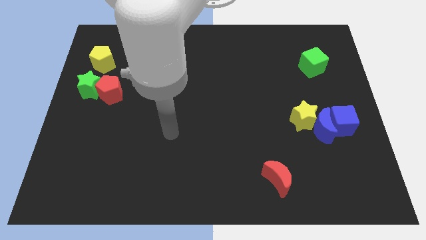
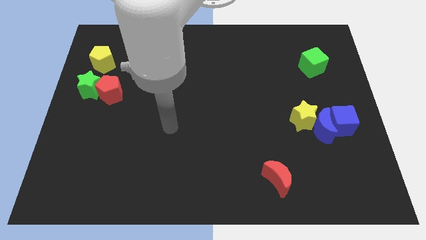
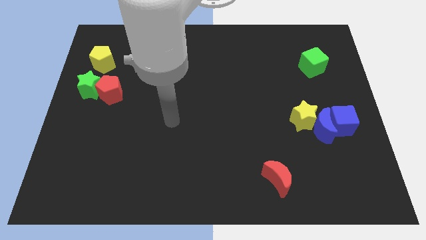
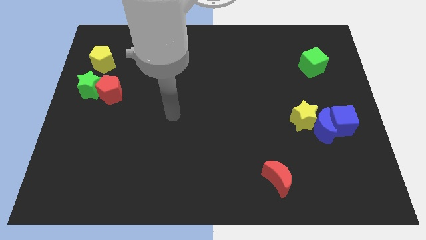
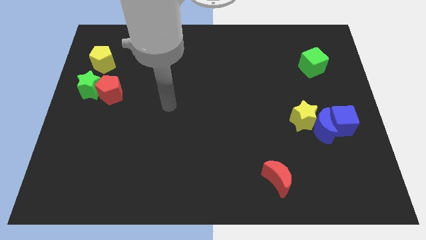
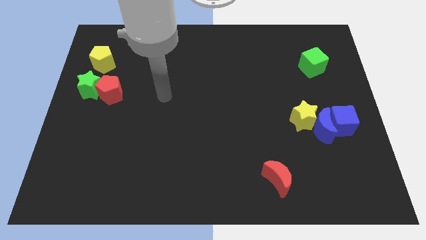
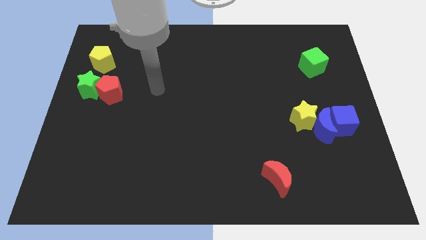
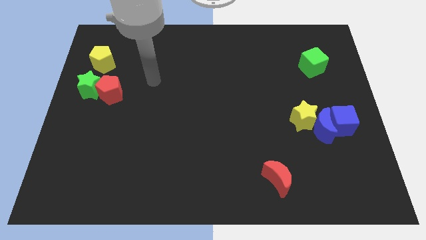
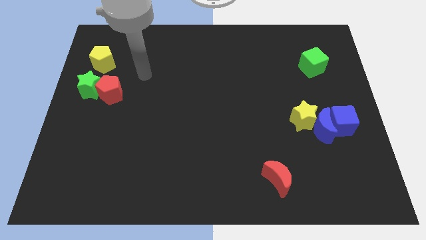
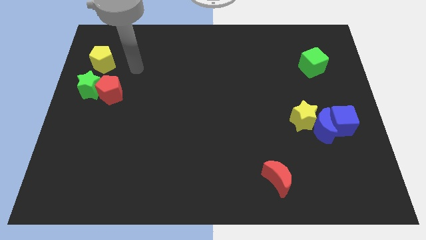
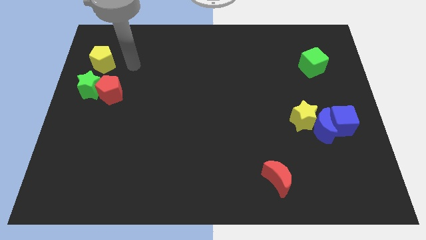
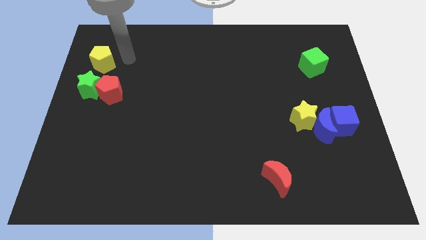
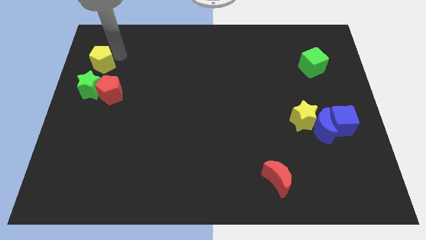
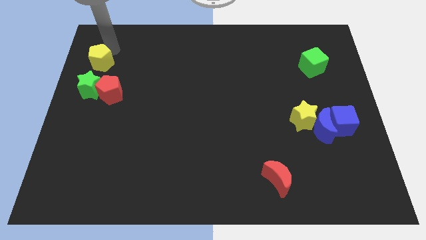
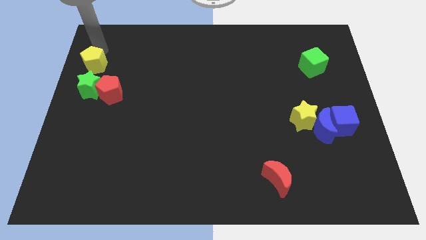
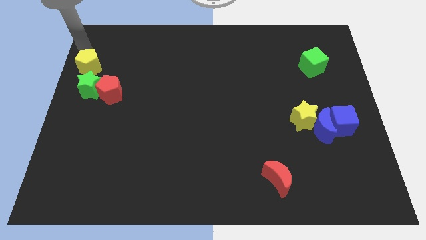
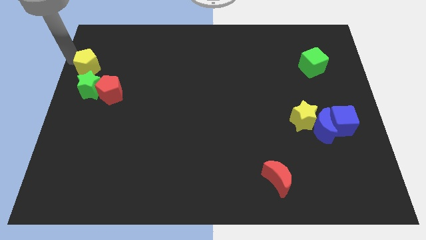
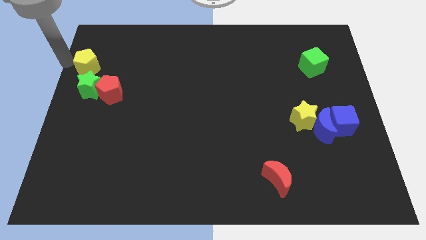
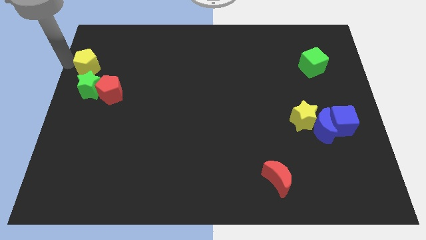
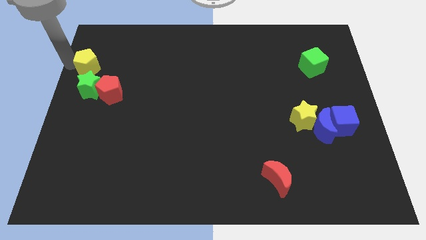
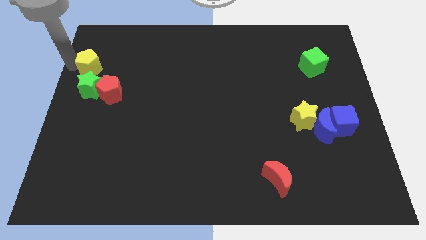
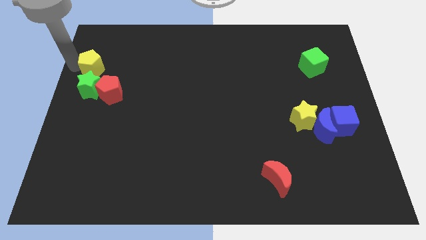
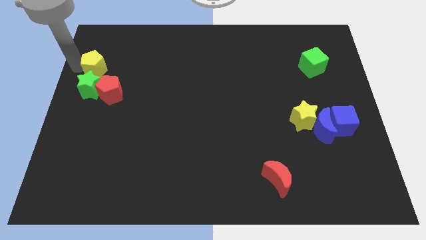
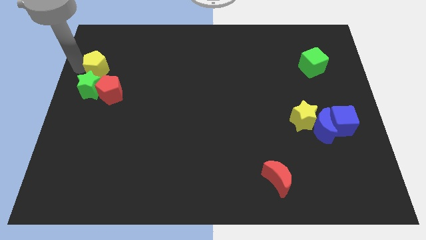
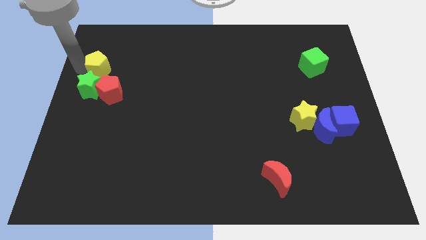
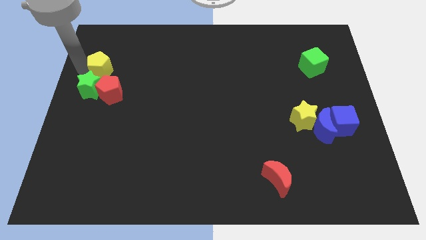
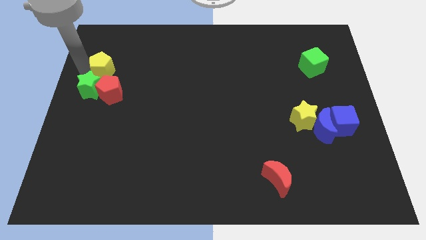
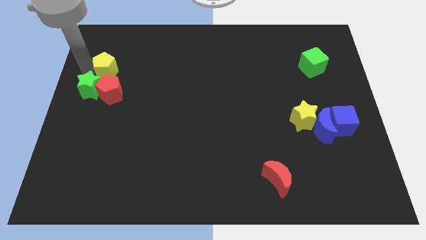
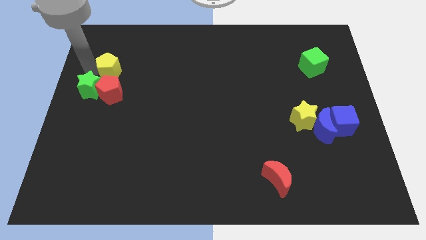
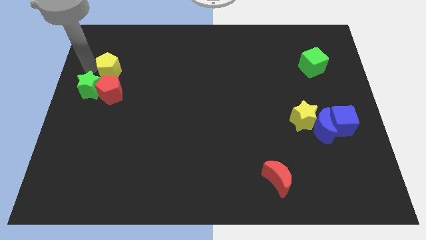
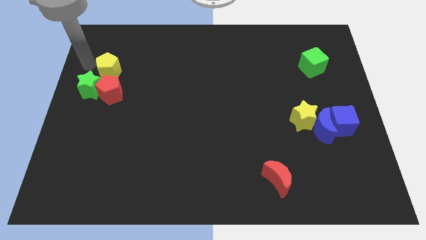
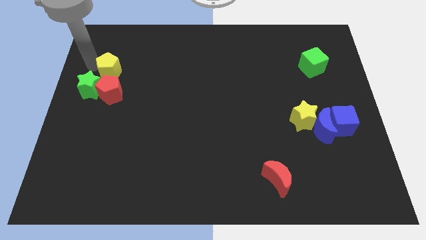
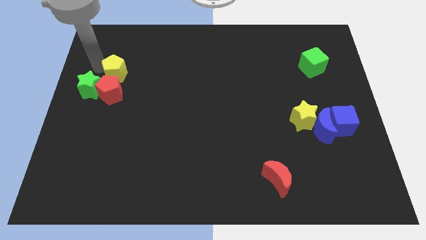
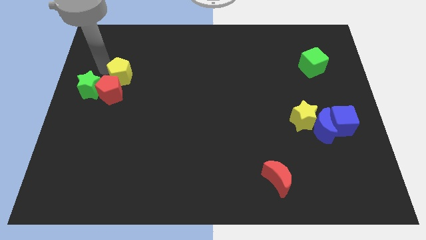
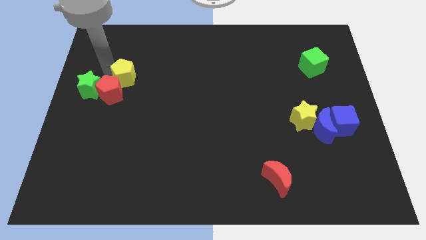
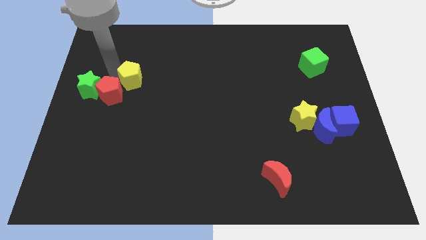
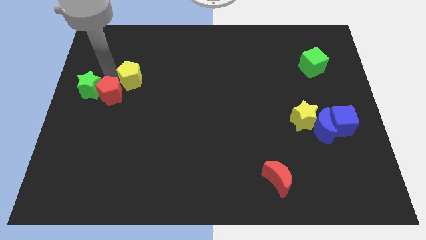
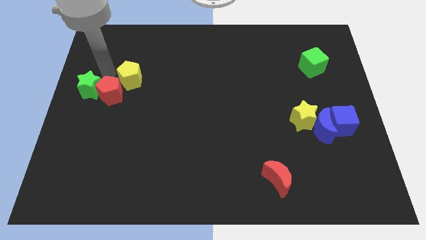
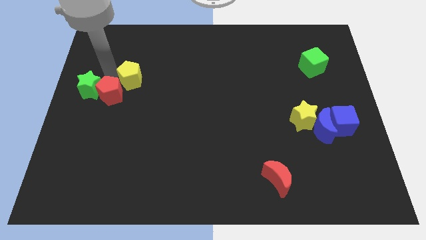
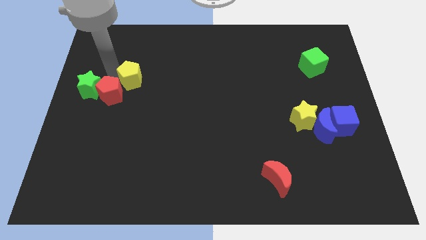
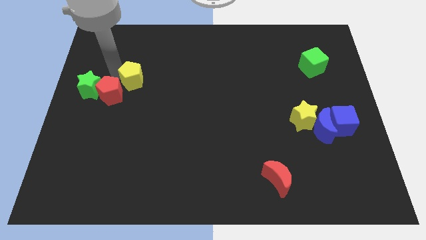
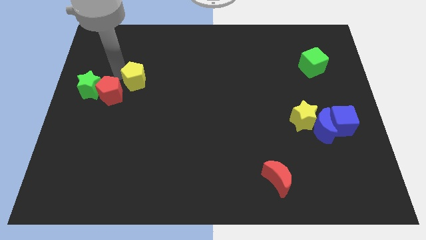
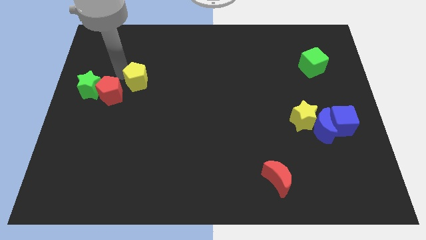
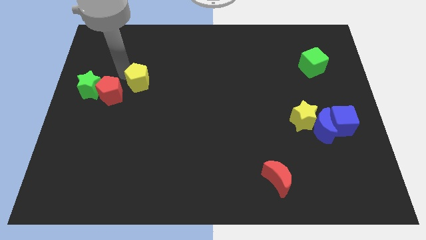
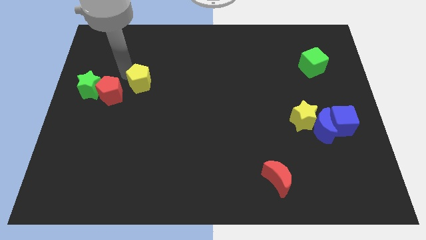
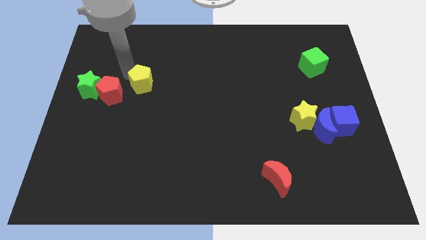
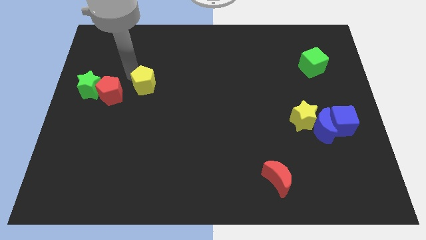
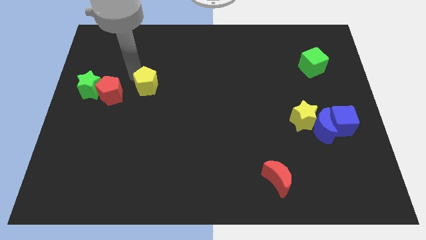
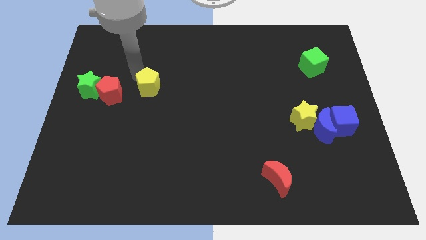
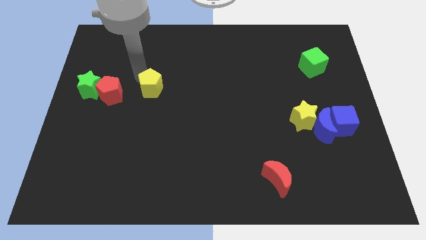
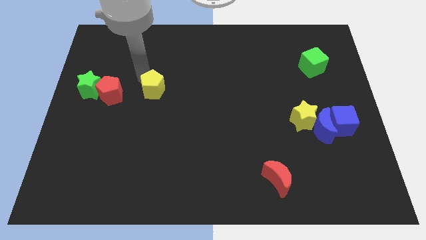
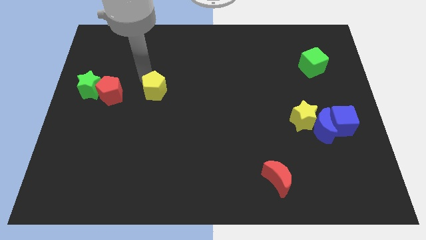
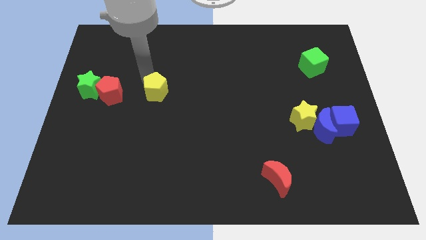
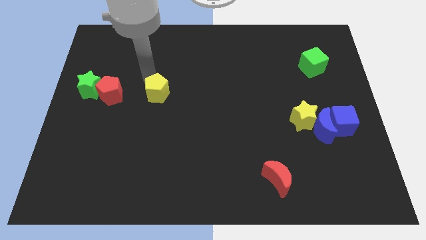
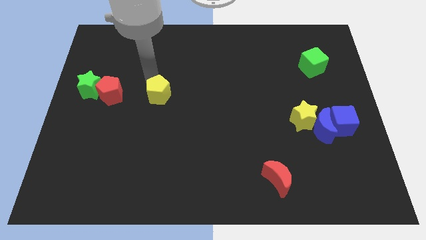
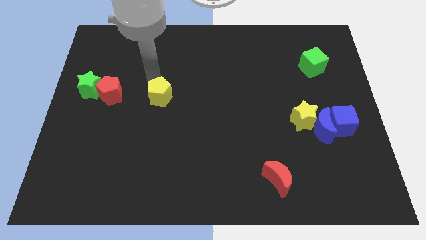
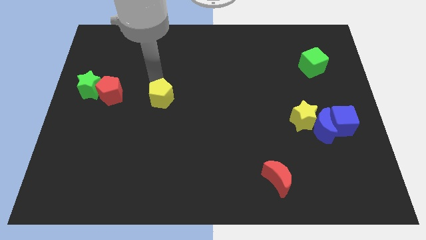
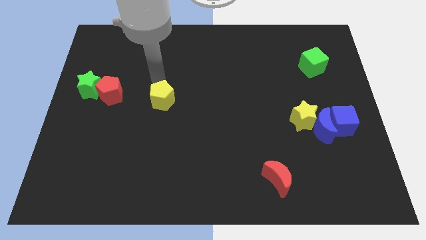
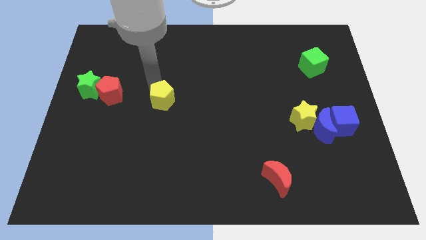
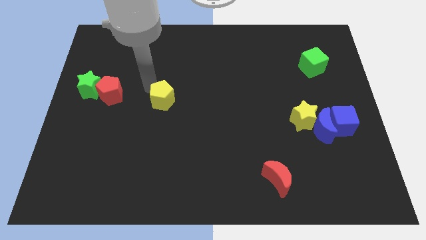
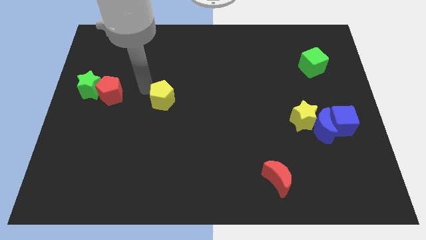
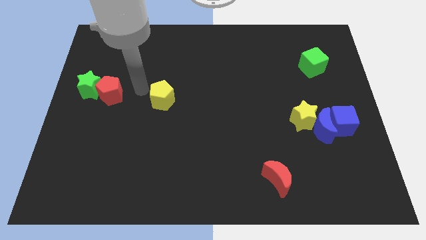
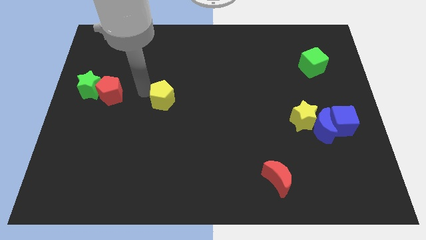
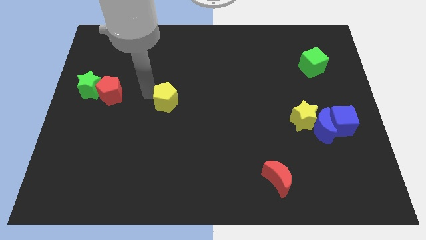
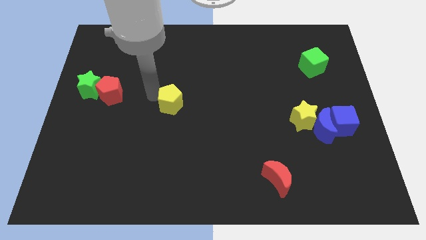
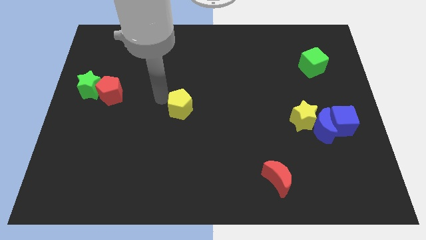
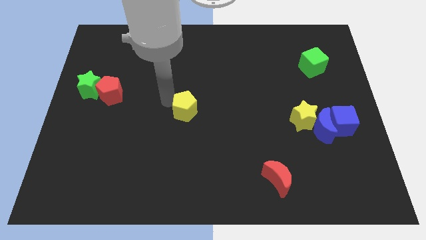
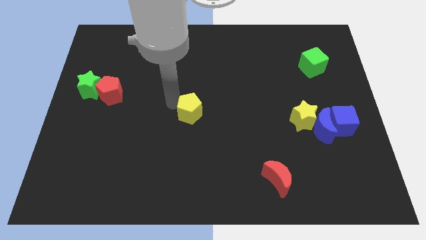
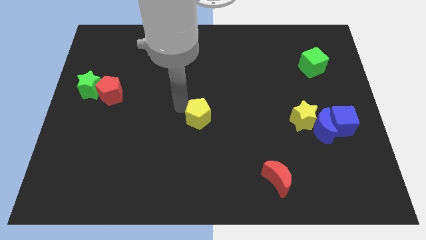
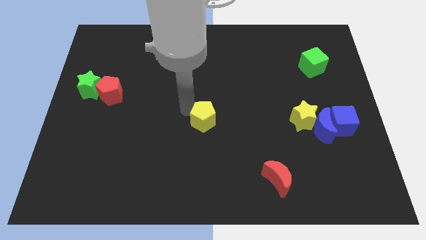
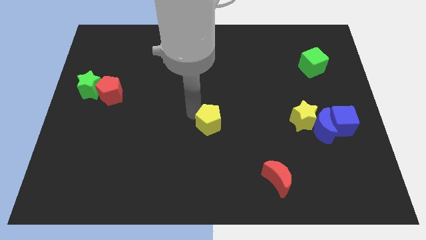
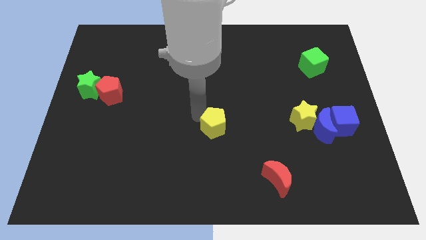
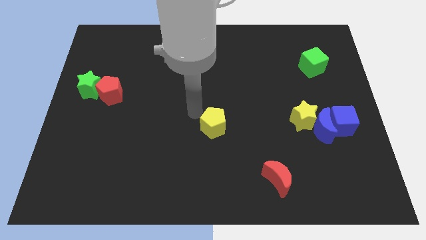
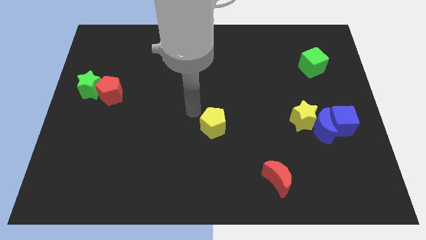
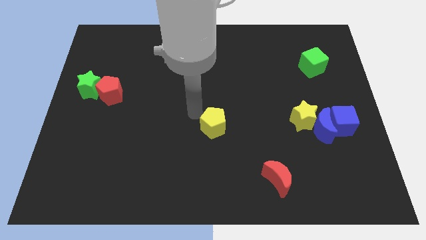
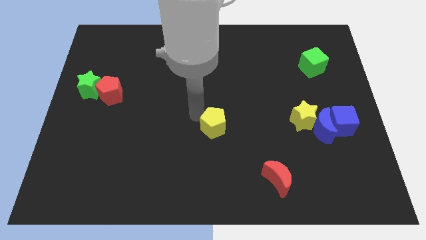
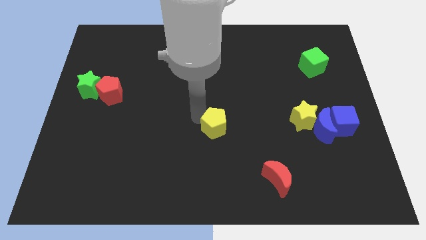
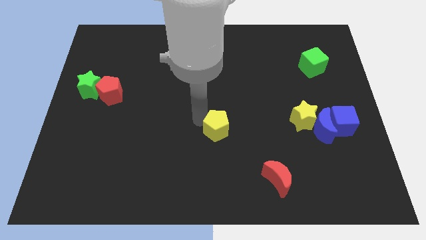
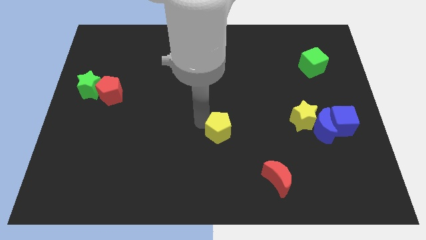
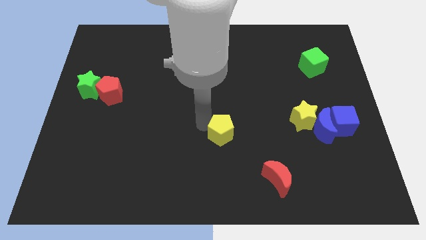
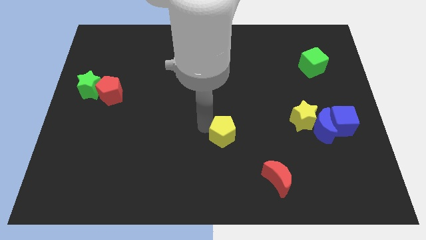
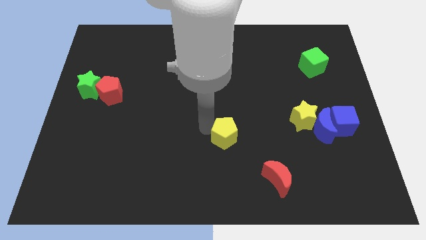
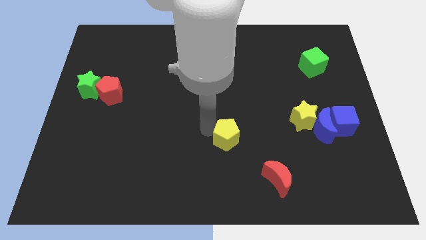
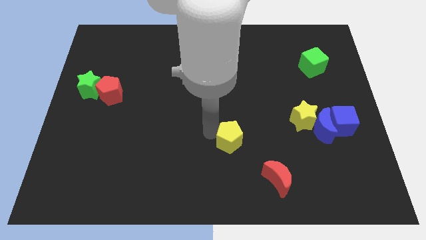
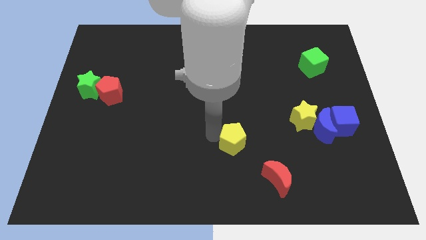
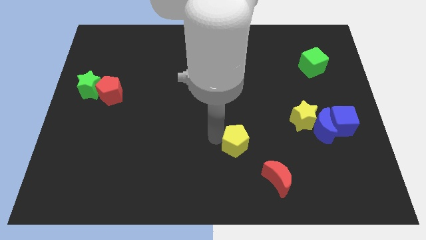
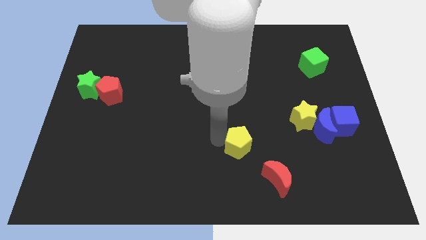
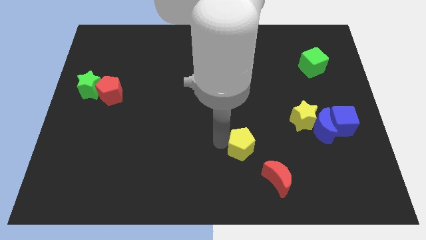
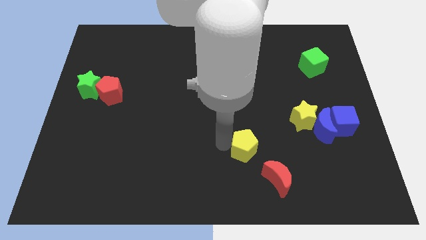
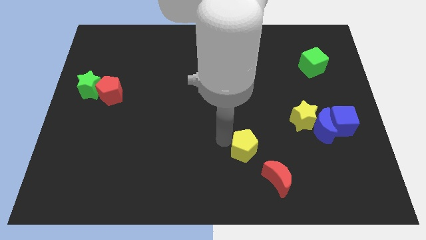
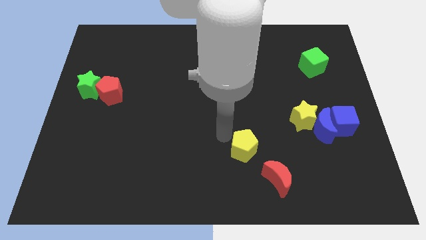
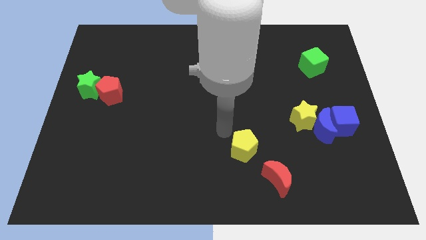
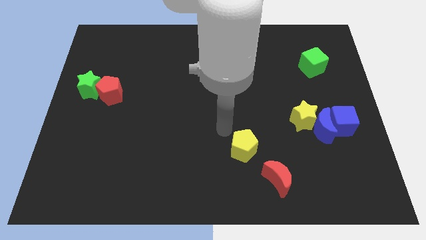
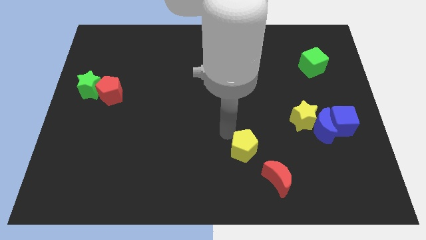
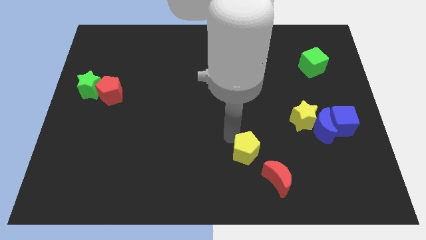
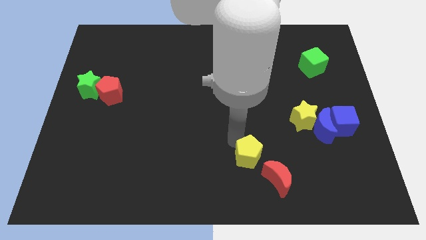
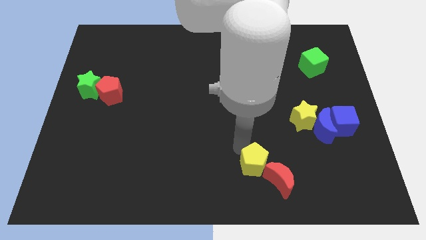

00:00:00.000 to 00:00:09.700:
push the yellow pentagon close to the red moon
